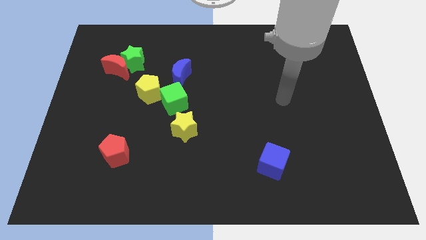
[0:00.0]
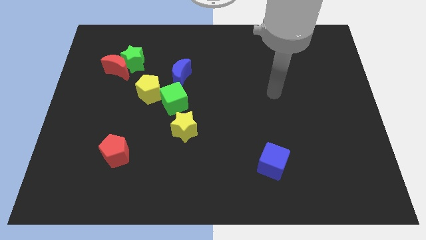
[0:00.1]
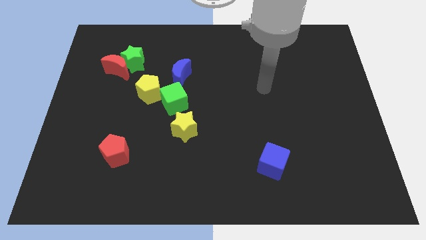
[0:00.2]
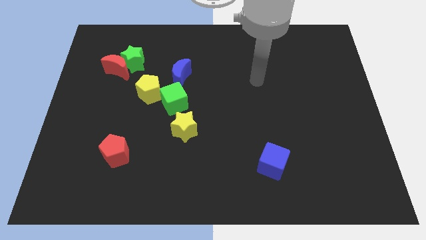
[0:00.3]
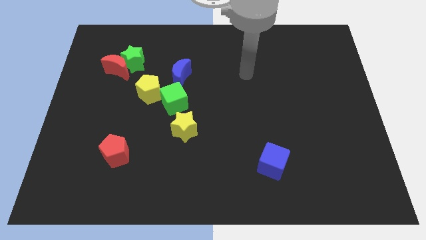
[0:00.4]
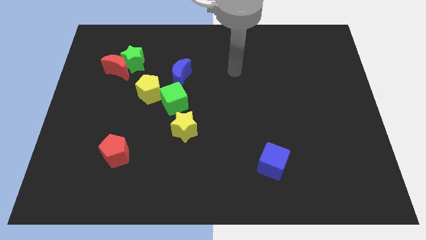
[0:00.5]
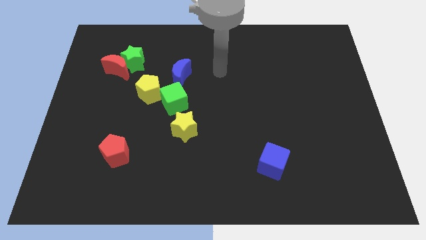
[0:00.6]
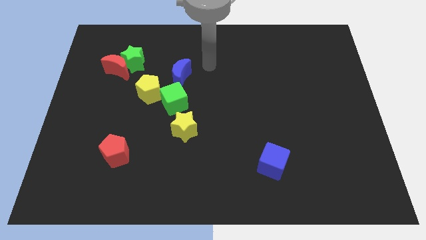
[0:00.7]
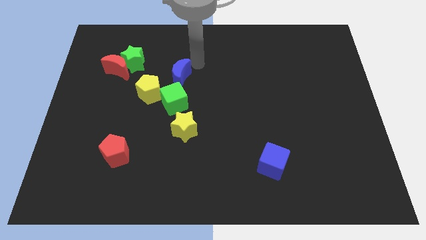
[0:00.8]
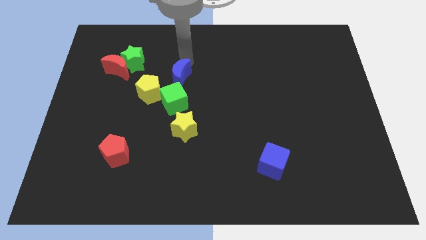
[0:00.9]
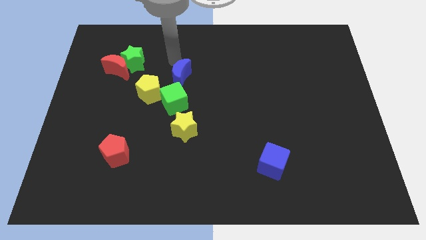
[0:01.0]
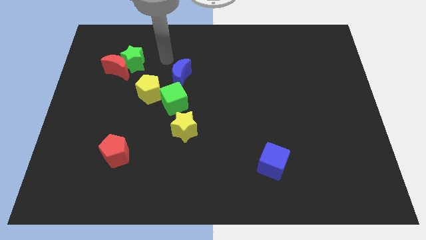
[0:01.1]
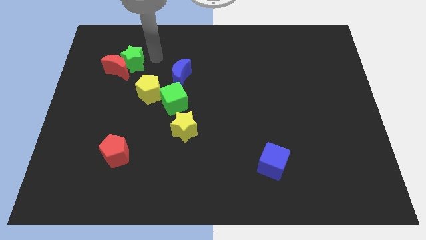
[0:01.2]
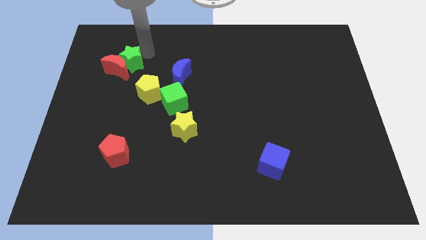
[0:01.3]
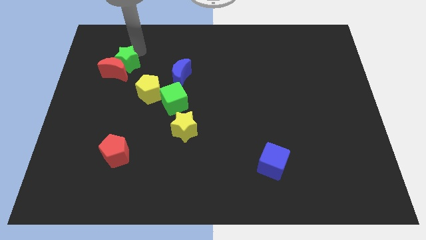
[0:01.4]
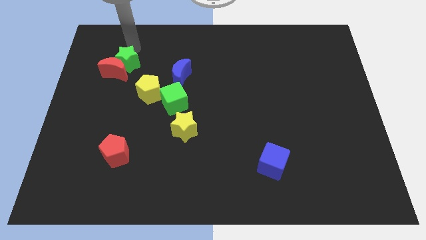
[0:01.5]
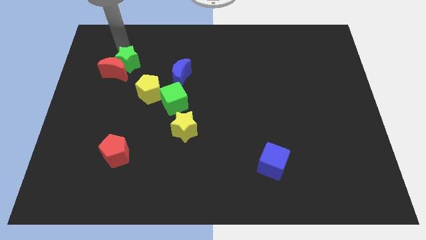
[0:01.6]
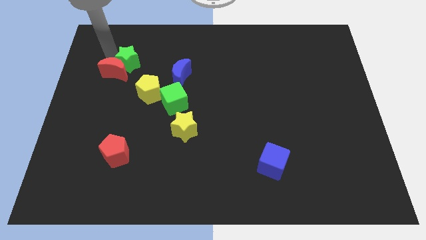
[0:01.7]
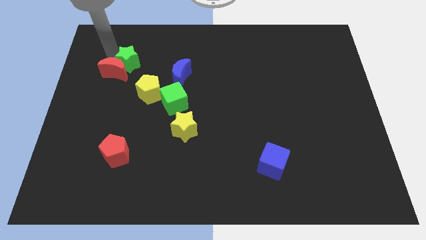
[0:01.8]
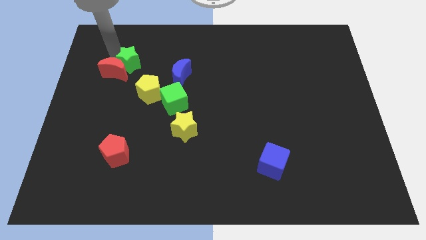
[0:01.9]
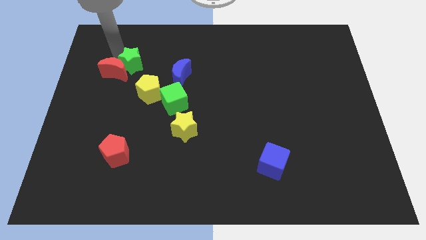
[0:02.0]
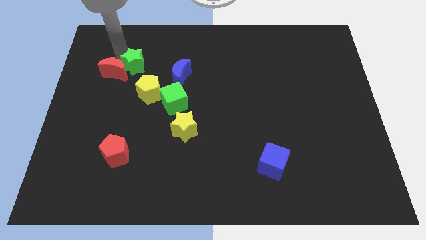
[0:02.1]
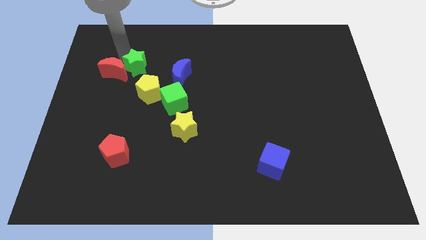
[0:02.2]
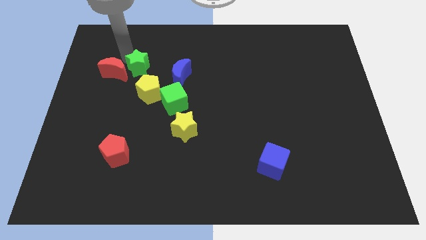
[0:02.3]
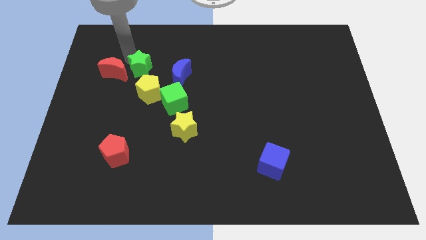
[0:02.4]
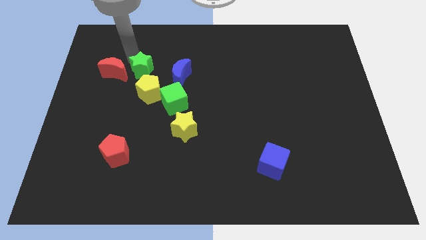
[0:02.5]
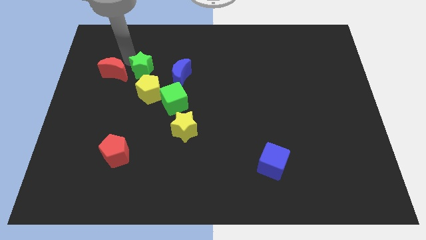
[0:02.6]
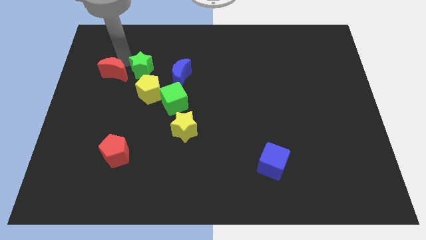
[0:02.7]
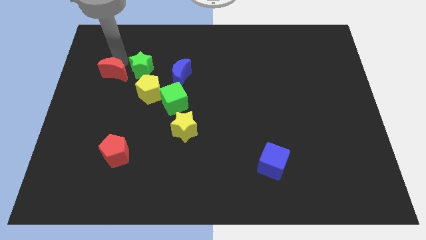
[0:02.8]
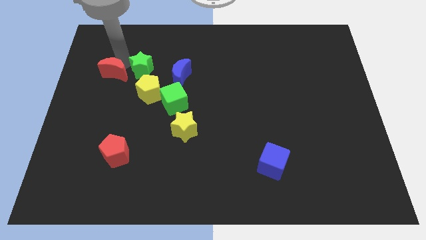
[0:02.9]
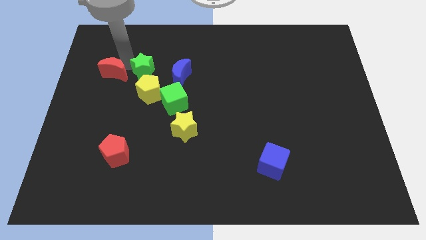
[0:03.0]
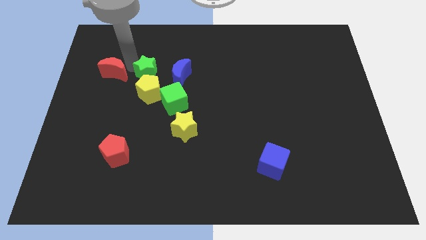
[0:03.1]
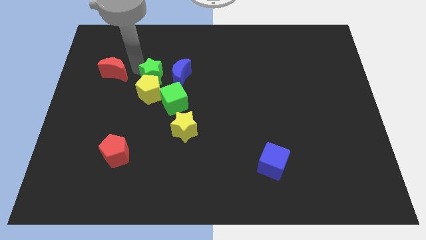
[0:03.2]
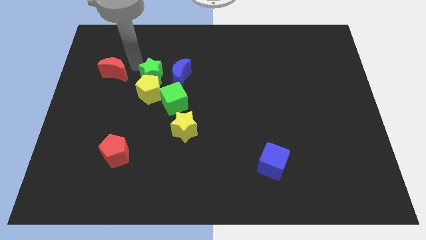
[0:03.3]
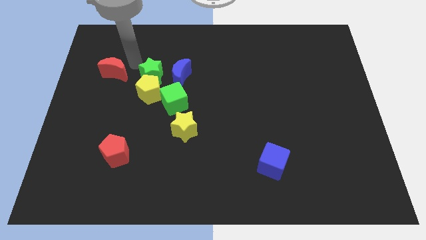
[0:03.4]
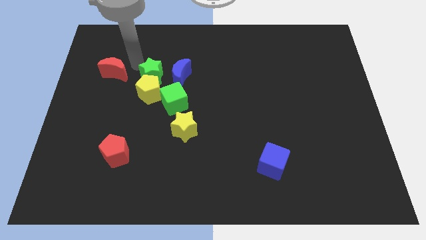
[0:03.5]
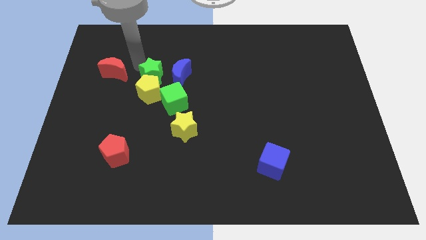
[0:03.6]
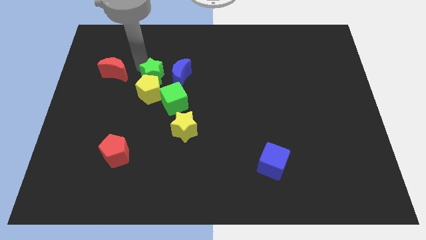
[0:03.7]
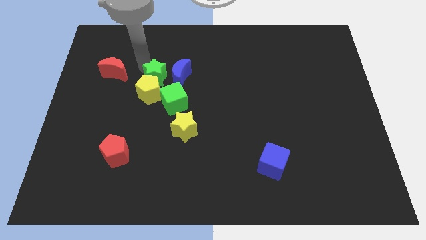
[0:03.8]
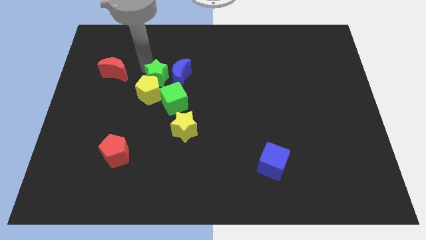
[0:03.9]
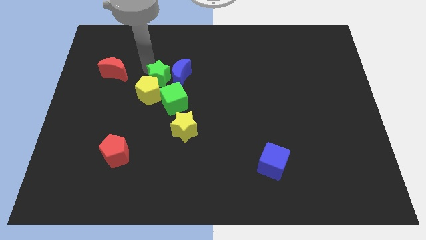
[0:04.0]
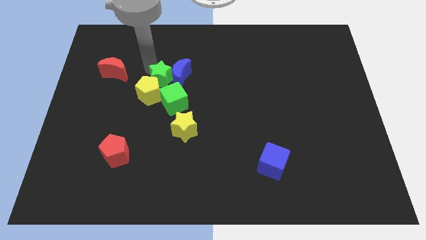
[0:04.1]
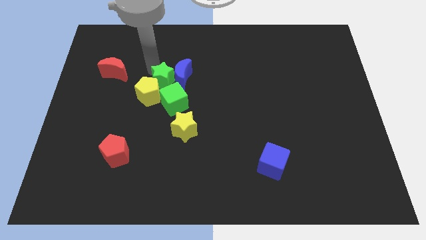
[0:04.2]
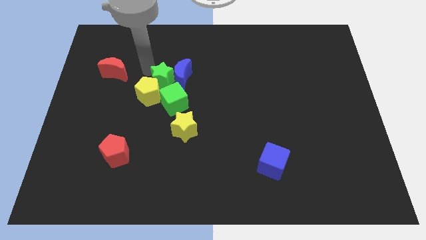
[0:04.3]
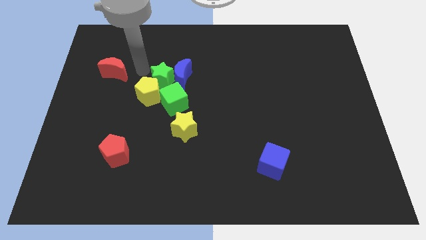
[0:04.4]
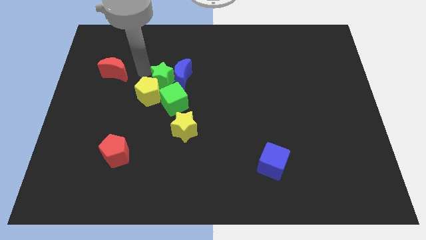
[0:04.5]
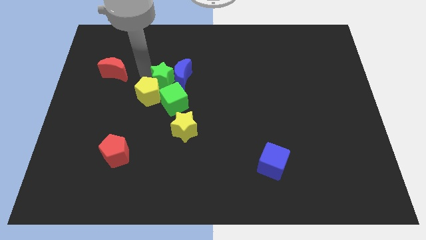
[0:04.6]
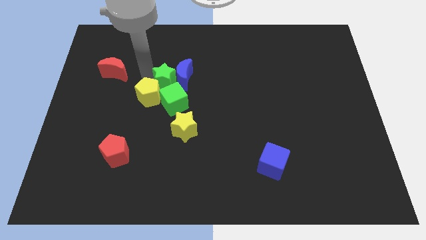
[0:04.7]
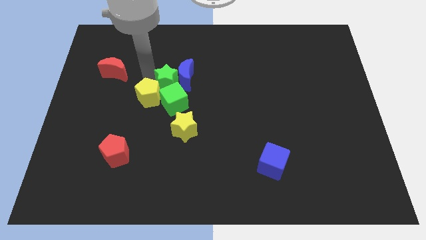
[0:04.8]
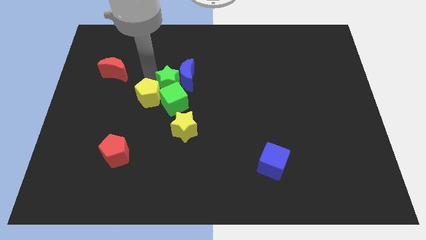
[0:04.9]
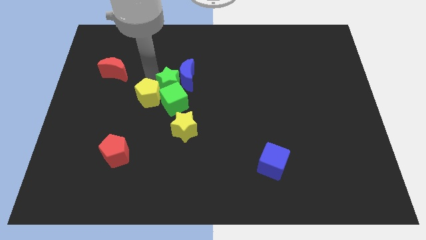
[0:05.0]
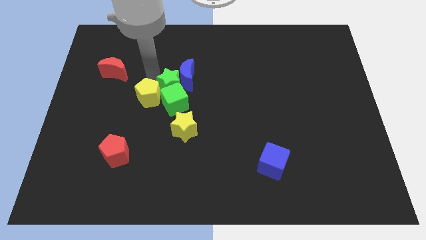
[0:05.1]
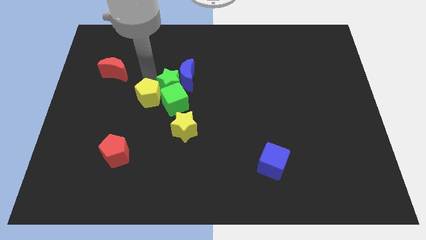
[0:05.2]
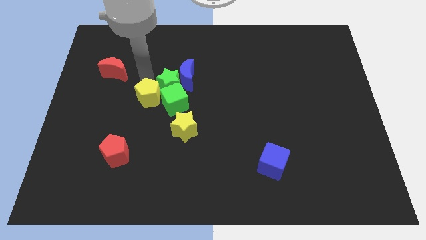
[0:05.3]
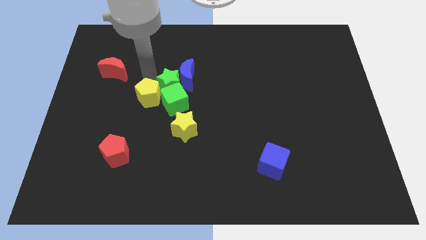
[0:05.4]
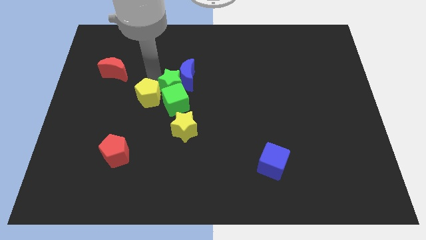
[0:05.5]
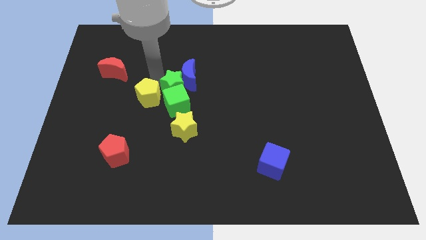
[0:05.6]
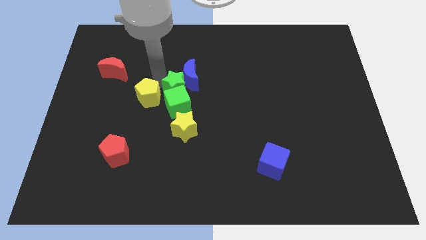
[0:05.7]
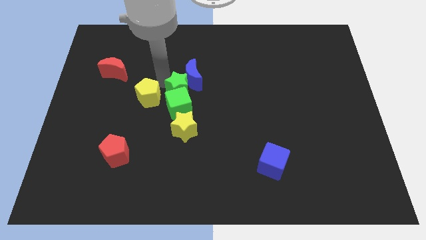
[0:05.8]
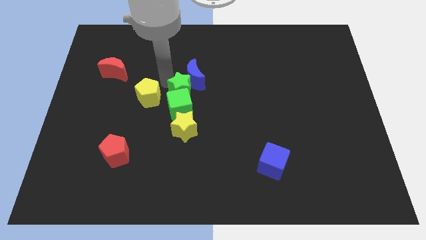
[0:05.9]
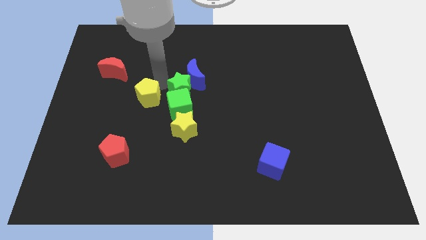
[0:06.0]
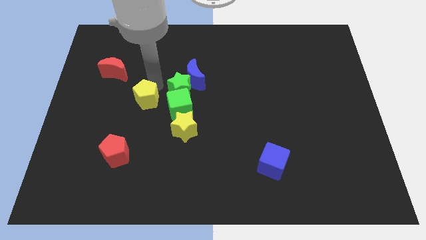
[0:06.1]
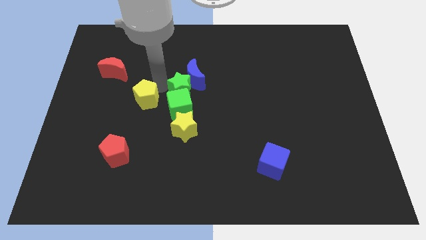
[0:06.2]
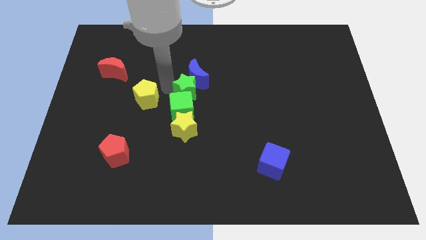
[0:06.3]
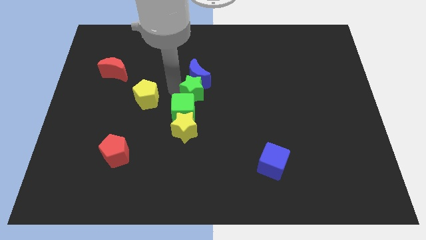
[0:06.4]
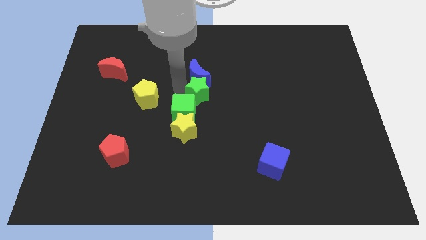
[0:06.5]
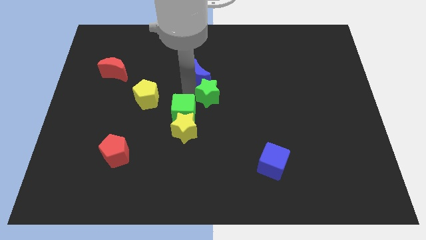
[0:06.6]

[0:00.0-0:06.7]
move the green star downwards and then right

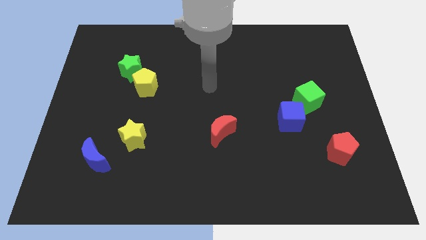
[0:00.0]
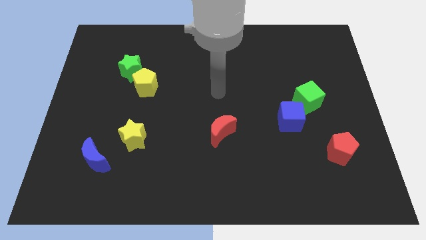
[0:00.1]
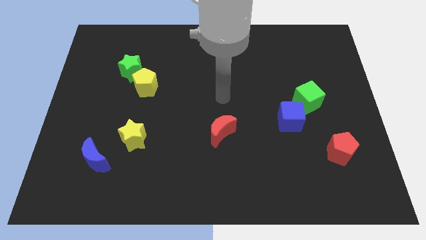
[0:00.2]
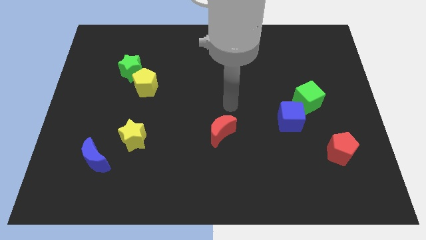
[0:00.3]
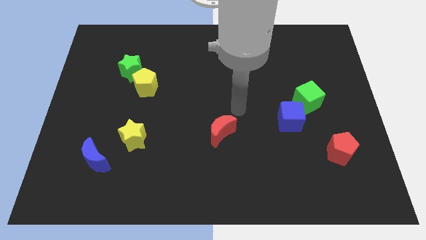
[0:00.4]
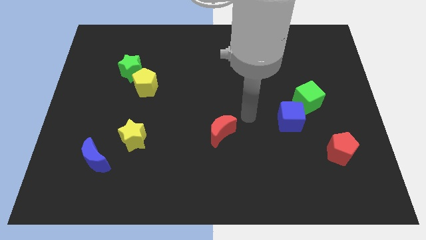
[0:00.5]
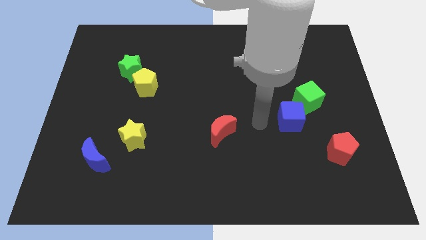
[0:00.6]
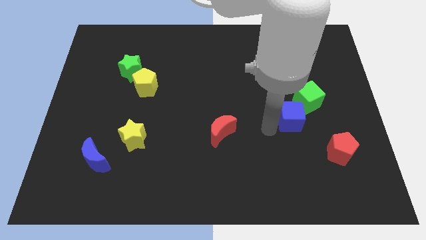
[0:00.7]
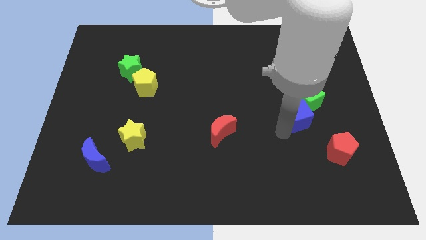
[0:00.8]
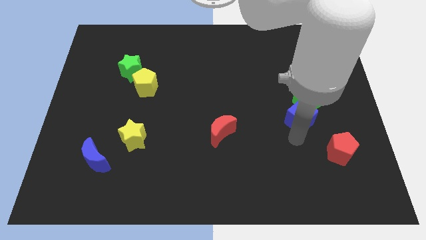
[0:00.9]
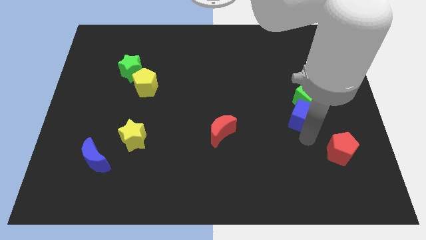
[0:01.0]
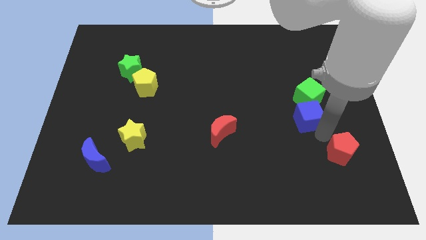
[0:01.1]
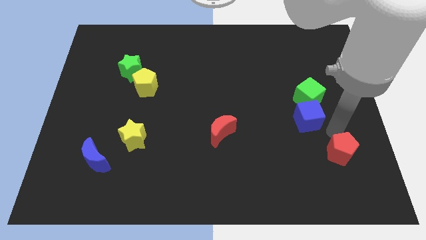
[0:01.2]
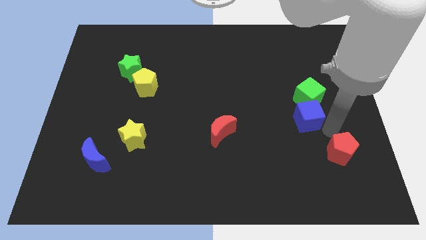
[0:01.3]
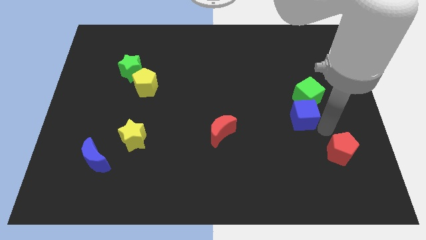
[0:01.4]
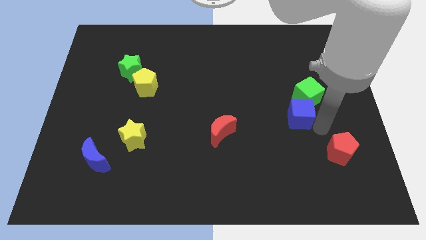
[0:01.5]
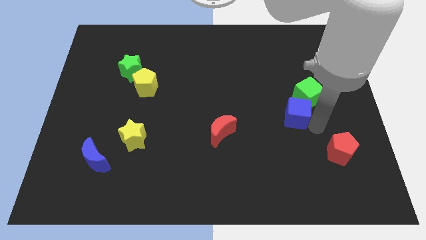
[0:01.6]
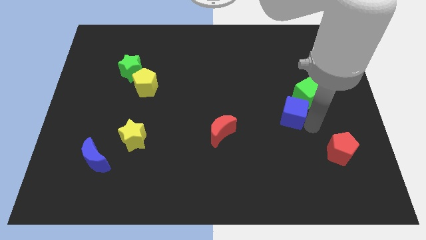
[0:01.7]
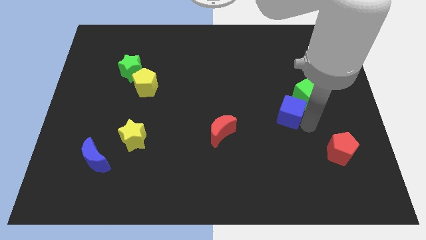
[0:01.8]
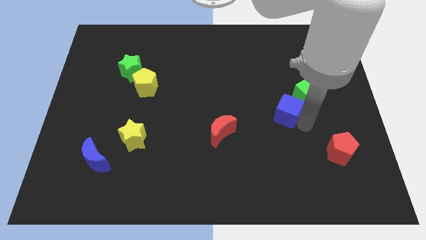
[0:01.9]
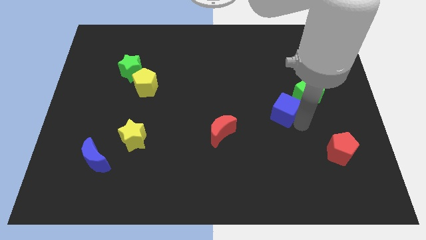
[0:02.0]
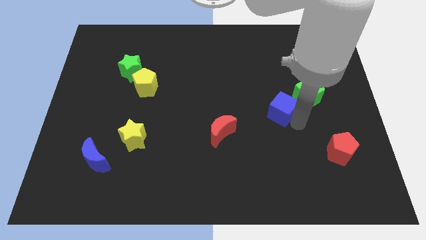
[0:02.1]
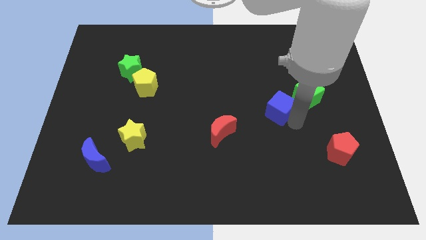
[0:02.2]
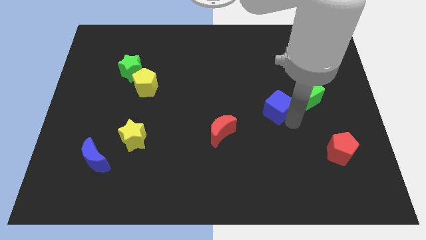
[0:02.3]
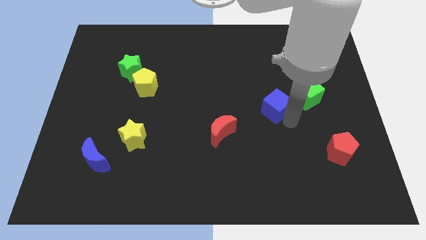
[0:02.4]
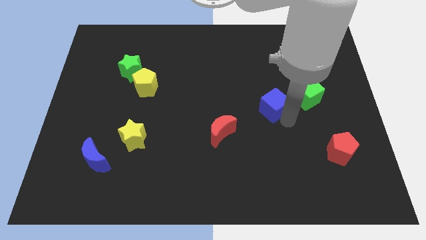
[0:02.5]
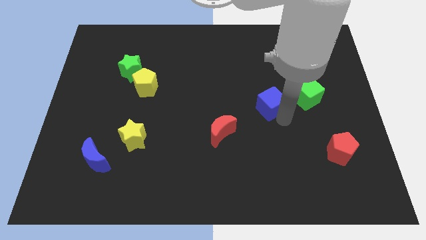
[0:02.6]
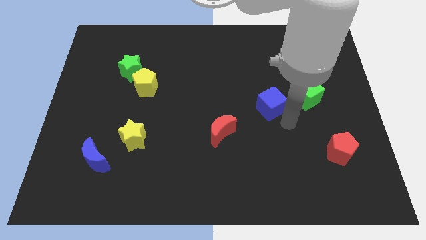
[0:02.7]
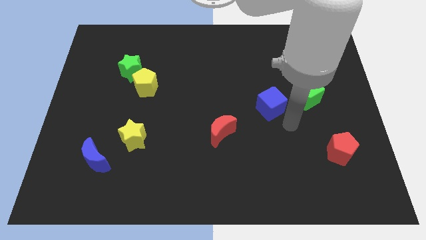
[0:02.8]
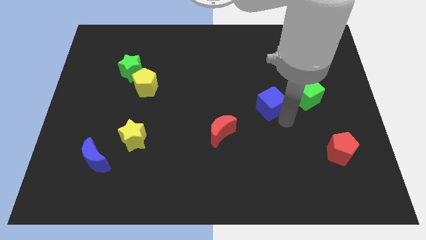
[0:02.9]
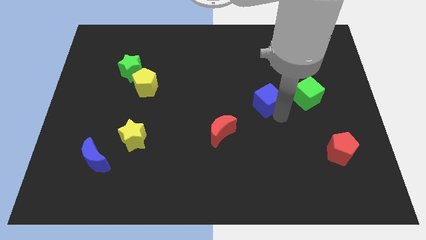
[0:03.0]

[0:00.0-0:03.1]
push the blue cube diagonally upwards and to the left a little bit
